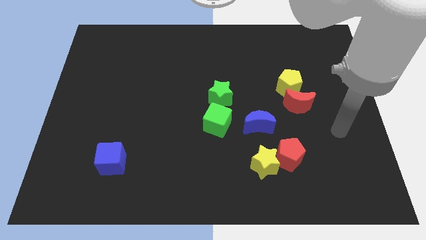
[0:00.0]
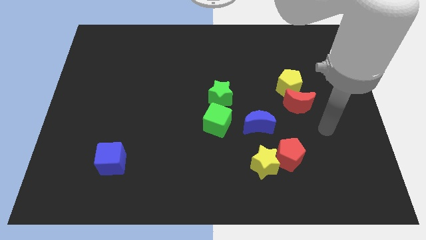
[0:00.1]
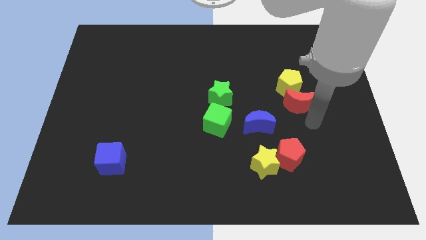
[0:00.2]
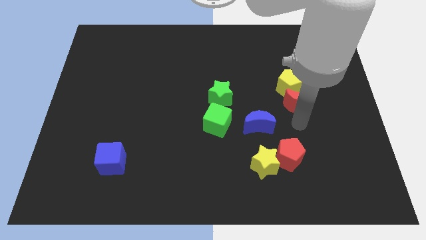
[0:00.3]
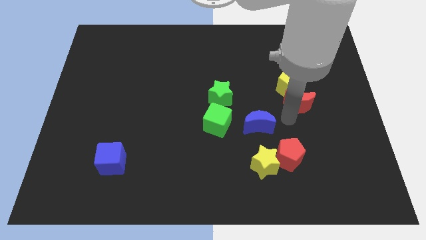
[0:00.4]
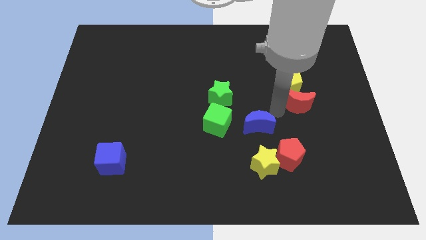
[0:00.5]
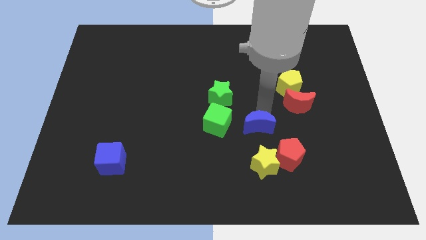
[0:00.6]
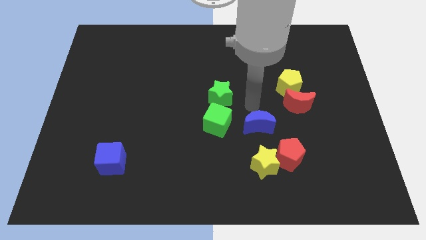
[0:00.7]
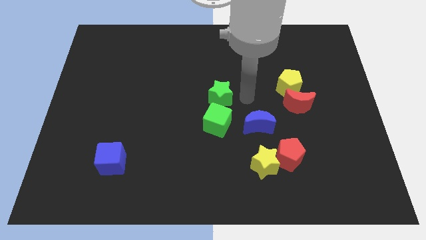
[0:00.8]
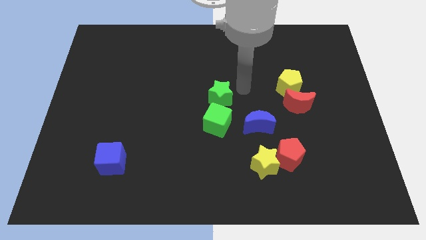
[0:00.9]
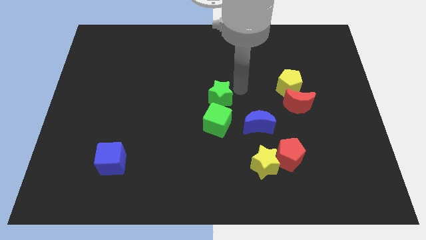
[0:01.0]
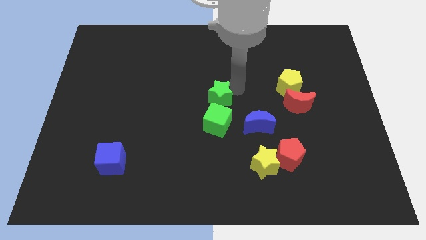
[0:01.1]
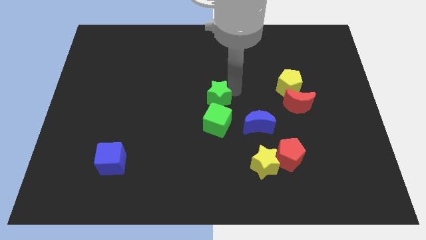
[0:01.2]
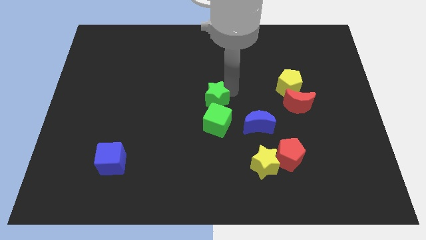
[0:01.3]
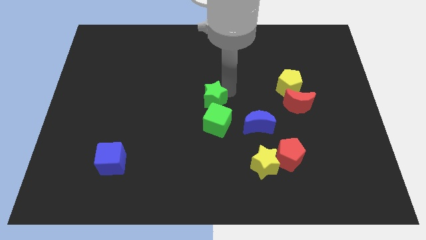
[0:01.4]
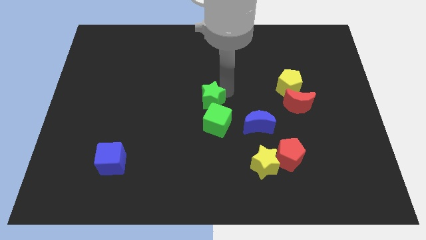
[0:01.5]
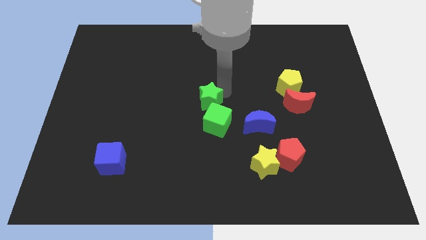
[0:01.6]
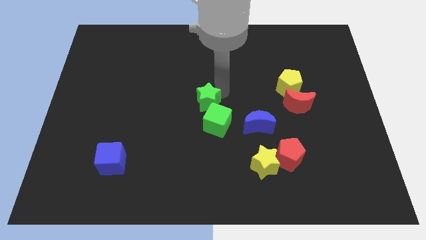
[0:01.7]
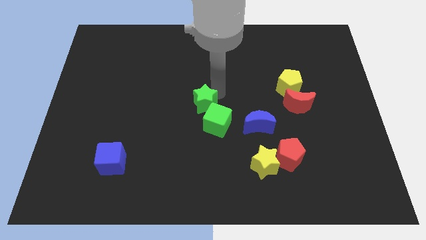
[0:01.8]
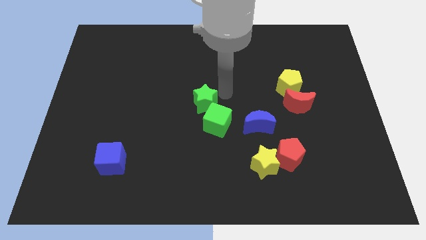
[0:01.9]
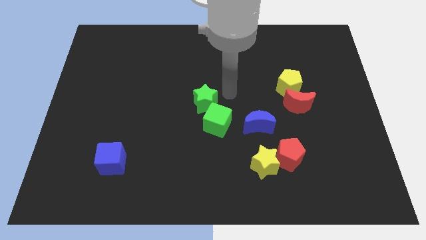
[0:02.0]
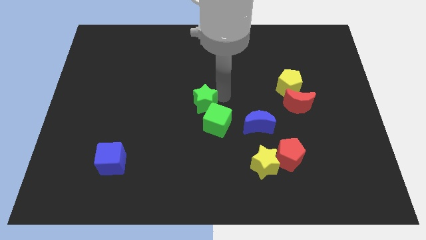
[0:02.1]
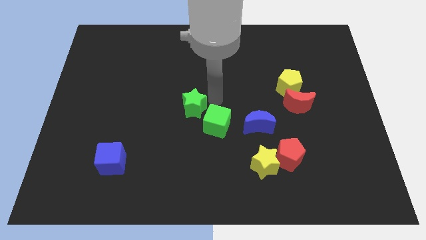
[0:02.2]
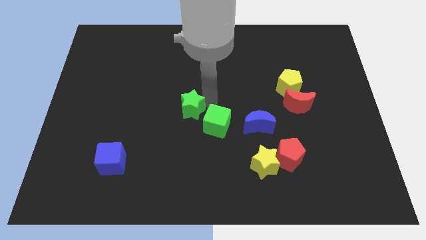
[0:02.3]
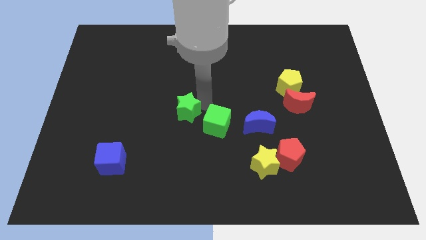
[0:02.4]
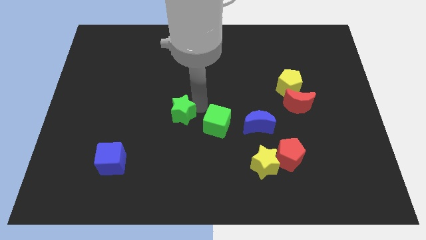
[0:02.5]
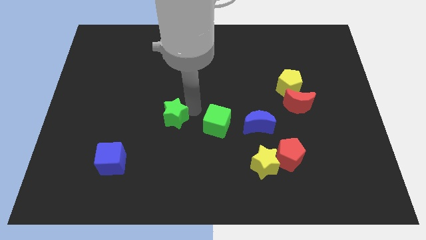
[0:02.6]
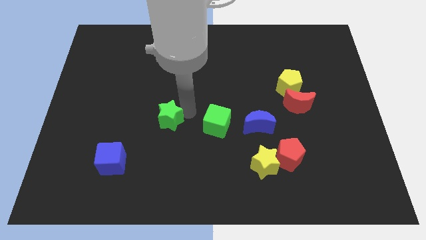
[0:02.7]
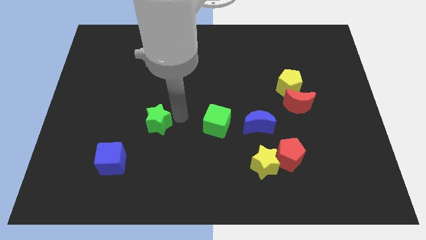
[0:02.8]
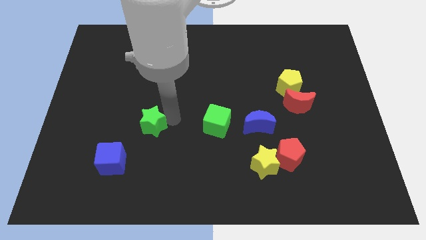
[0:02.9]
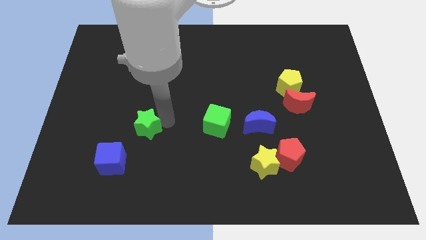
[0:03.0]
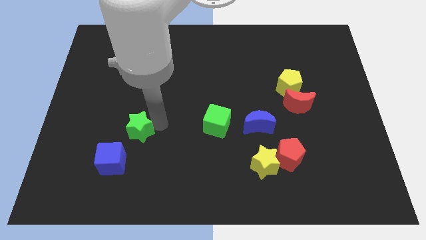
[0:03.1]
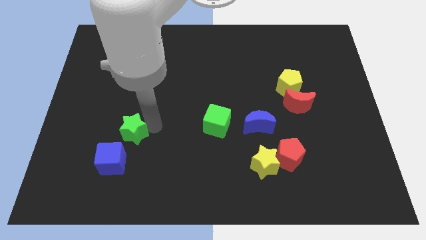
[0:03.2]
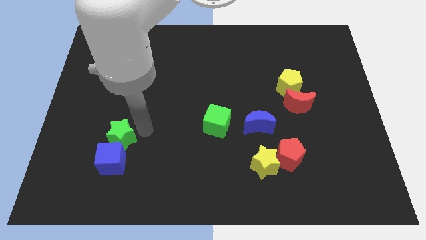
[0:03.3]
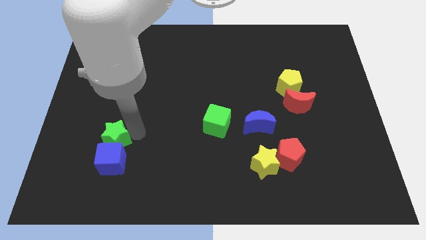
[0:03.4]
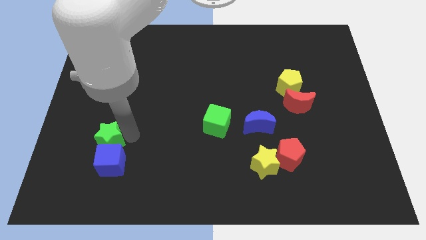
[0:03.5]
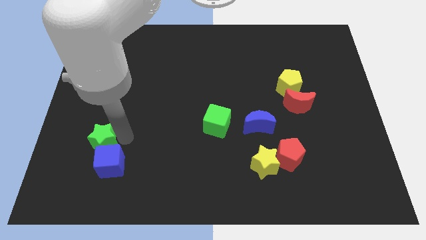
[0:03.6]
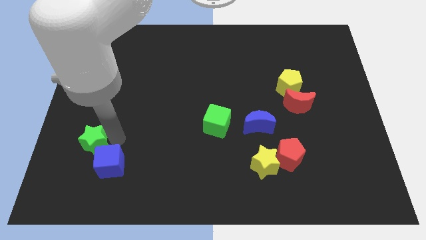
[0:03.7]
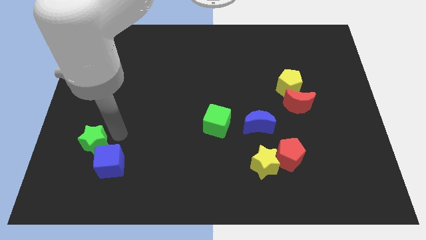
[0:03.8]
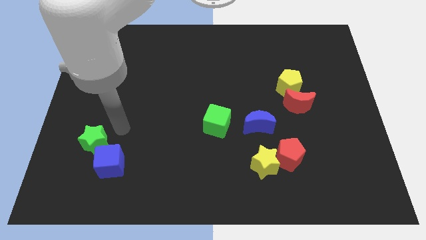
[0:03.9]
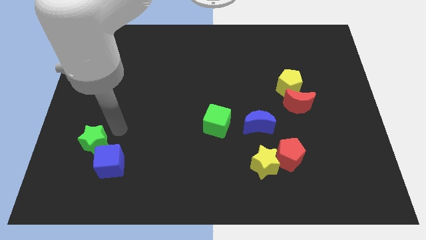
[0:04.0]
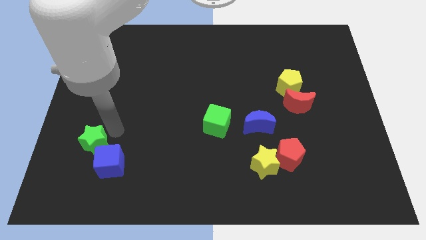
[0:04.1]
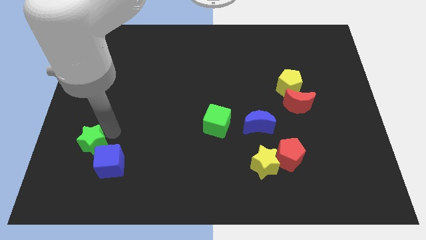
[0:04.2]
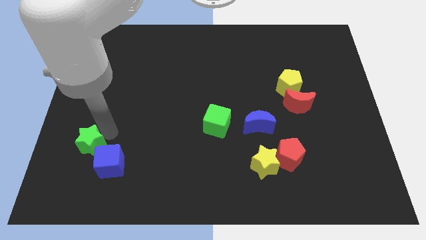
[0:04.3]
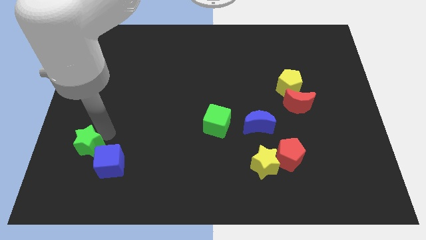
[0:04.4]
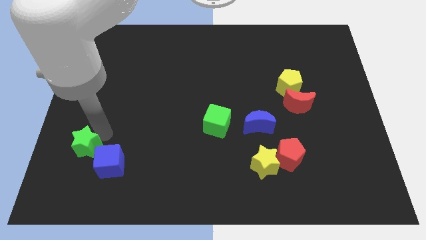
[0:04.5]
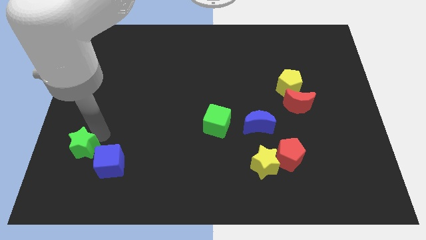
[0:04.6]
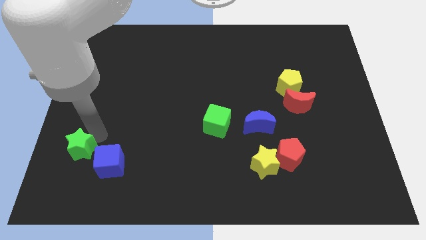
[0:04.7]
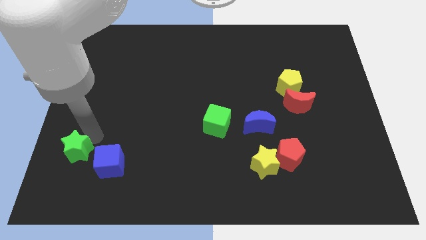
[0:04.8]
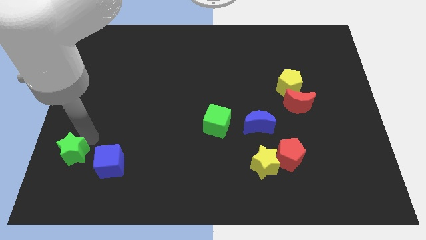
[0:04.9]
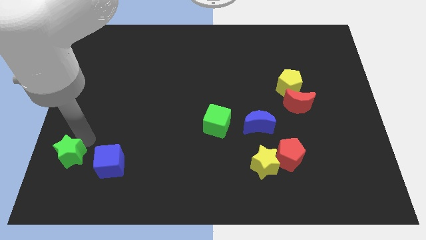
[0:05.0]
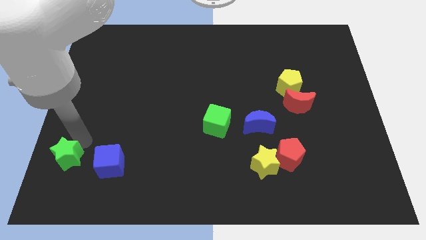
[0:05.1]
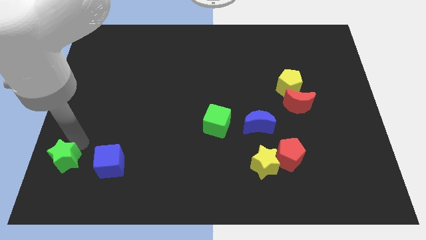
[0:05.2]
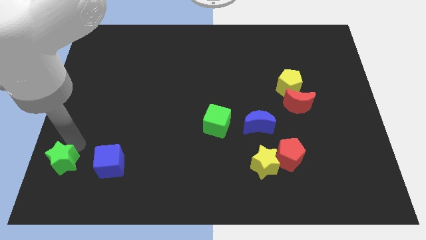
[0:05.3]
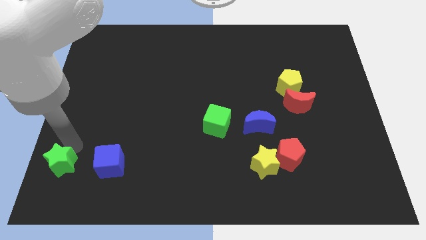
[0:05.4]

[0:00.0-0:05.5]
slide the green star to the bottom left

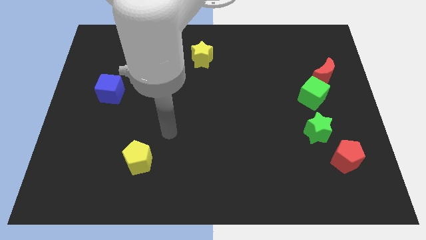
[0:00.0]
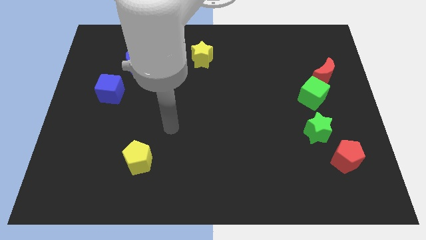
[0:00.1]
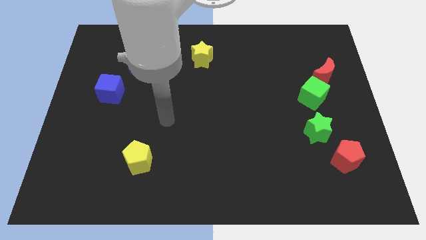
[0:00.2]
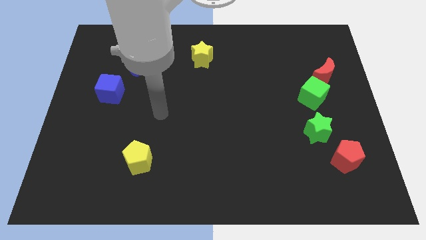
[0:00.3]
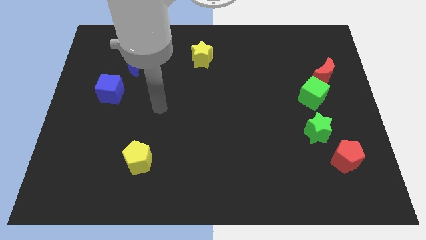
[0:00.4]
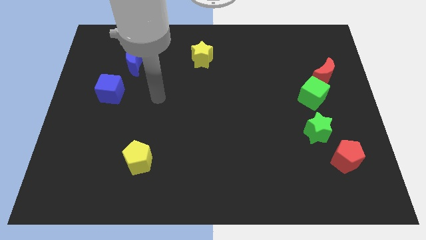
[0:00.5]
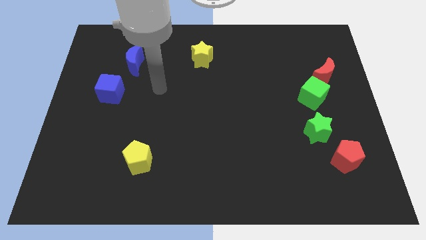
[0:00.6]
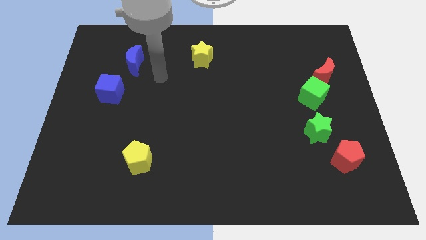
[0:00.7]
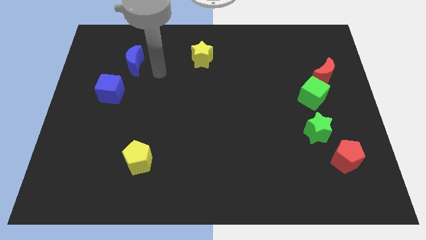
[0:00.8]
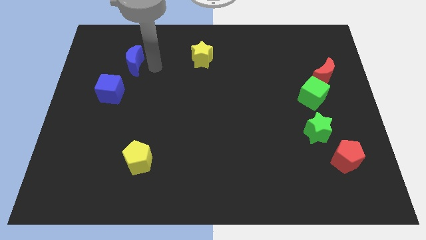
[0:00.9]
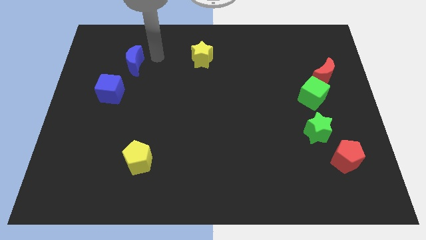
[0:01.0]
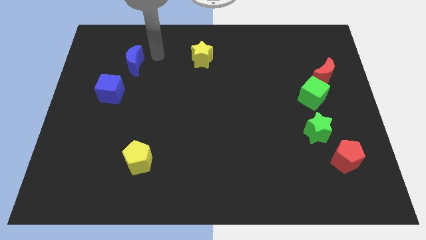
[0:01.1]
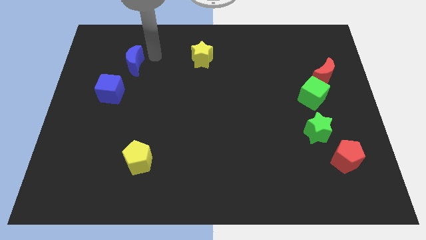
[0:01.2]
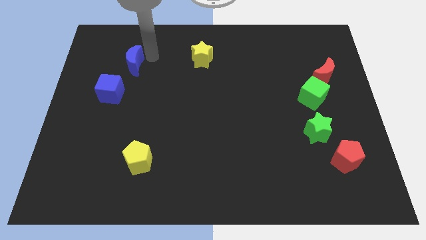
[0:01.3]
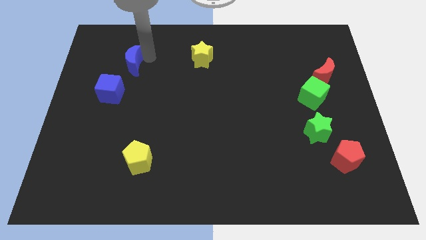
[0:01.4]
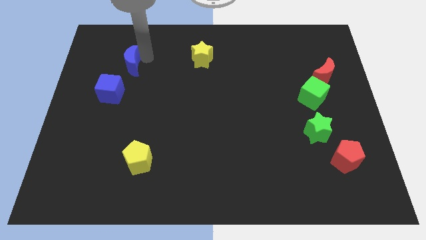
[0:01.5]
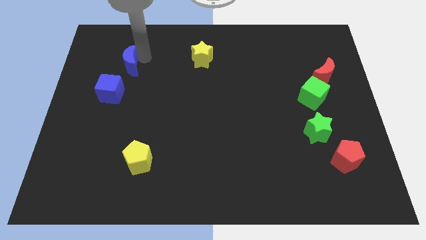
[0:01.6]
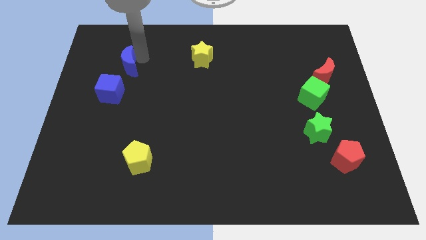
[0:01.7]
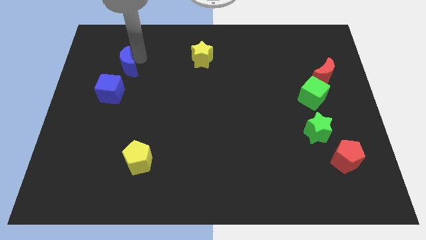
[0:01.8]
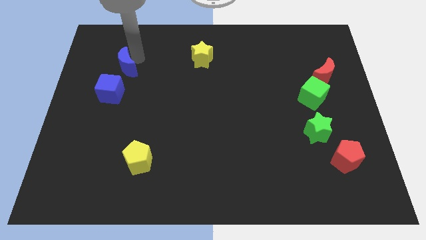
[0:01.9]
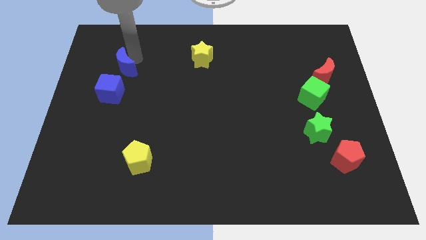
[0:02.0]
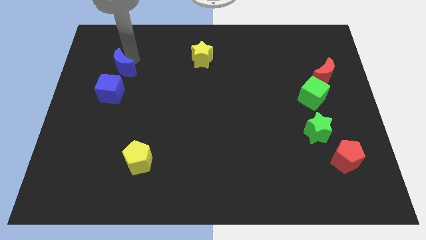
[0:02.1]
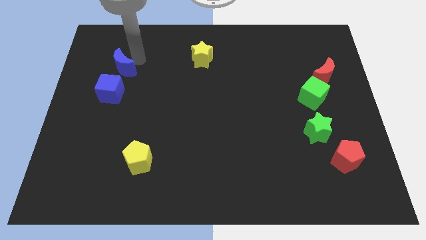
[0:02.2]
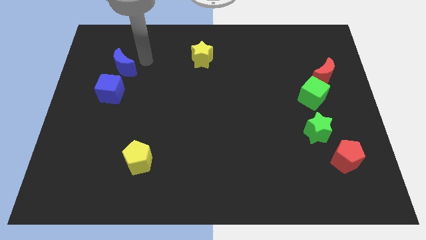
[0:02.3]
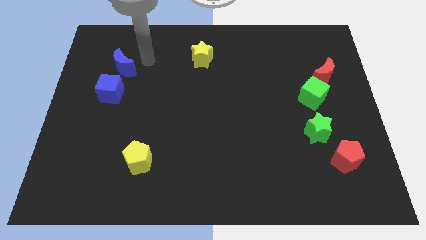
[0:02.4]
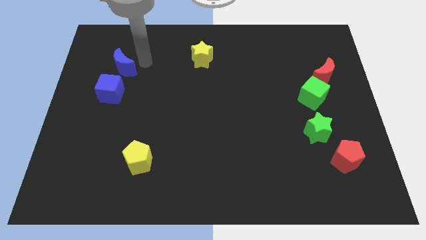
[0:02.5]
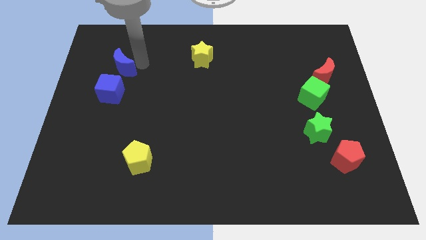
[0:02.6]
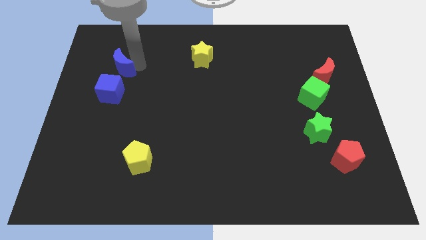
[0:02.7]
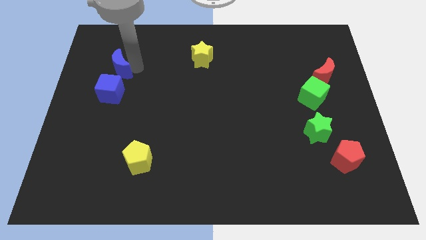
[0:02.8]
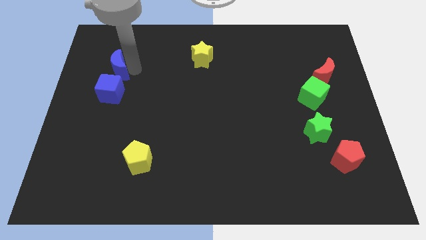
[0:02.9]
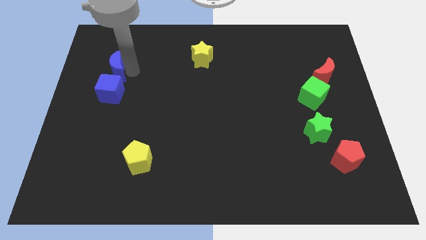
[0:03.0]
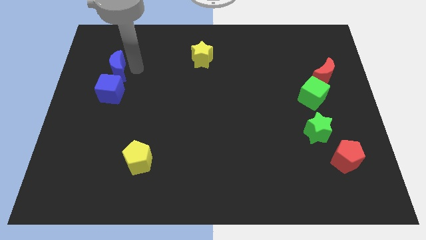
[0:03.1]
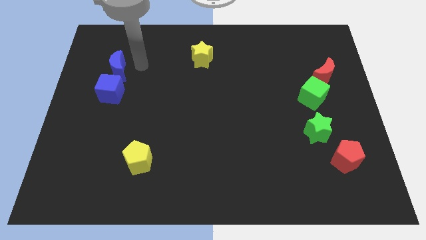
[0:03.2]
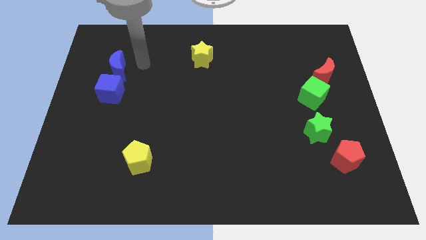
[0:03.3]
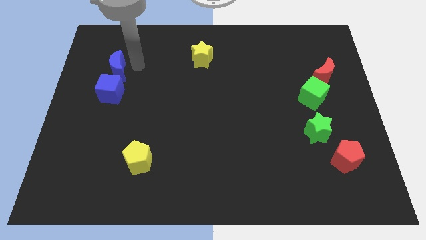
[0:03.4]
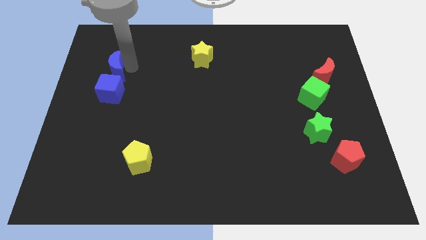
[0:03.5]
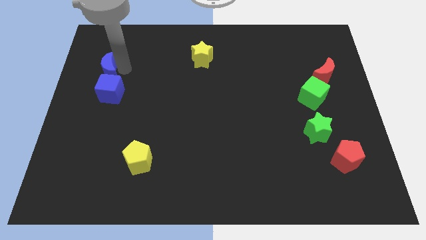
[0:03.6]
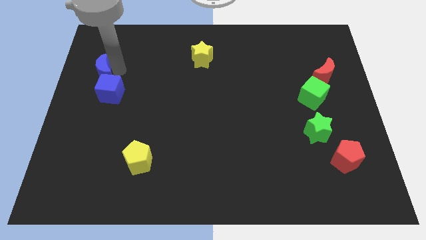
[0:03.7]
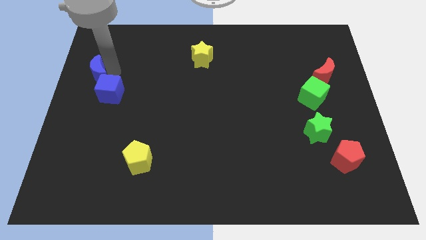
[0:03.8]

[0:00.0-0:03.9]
move the blue moon to the left side
